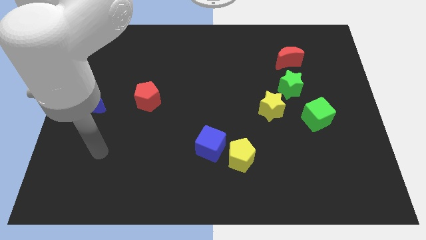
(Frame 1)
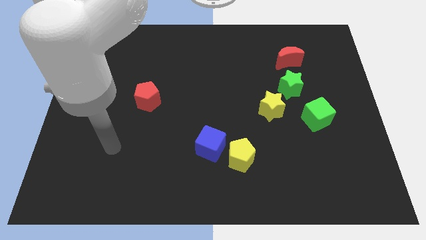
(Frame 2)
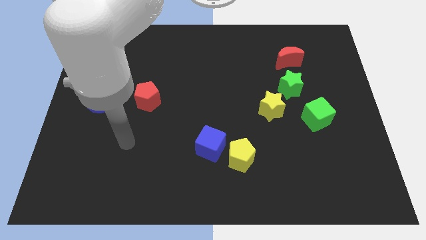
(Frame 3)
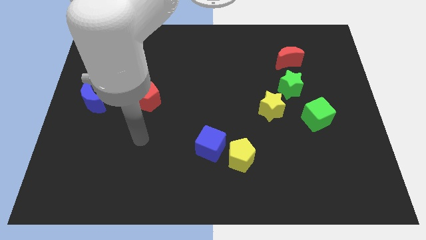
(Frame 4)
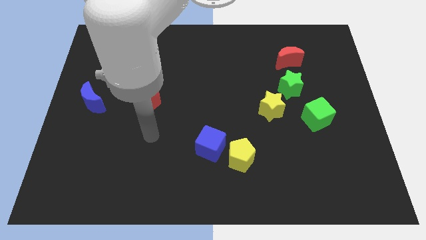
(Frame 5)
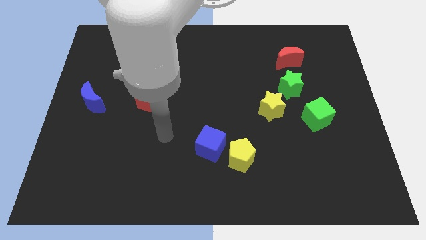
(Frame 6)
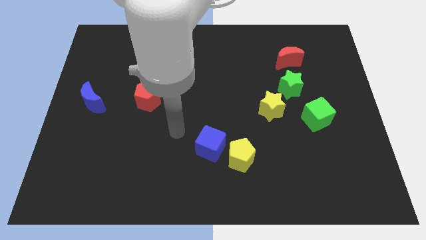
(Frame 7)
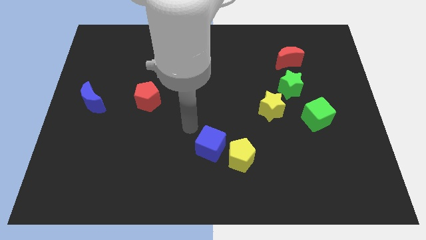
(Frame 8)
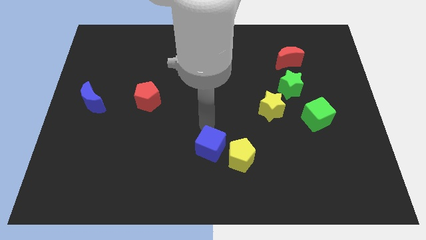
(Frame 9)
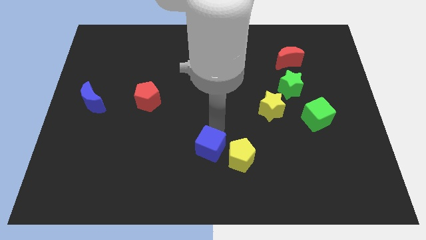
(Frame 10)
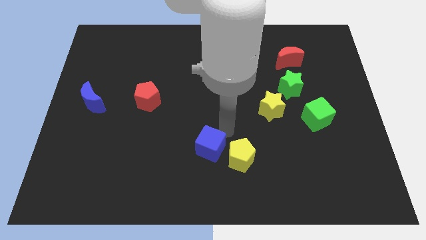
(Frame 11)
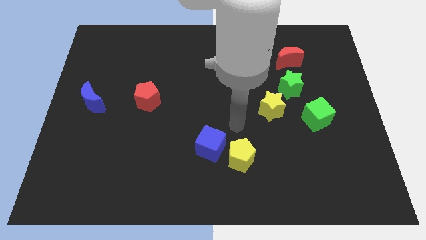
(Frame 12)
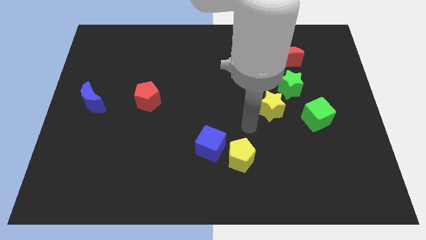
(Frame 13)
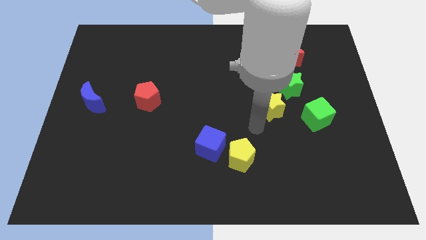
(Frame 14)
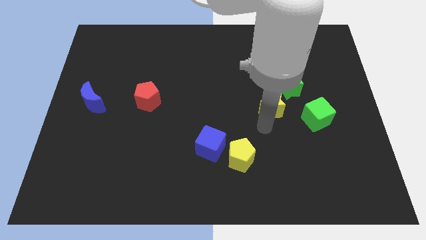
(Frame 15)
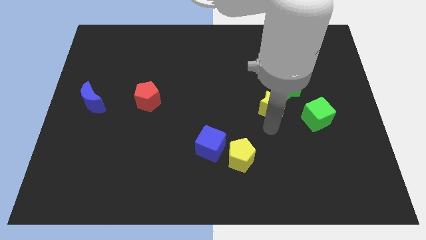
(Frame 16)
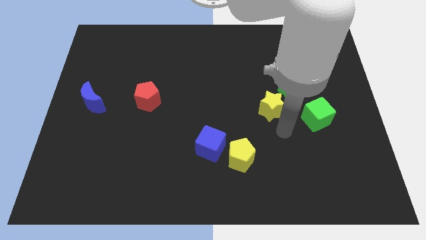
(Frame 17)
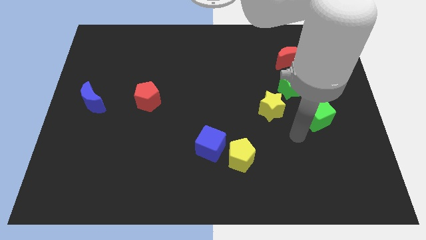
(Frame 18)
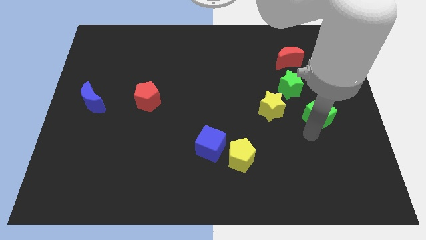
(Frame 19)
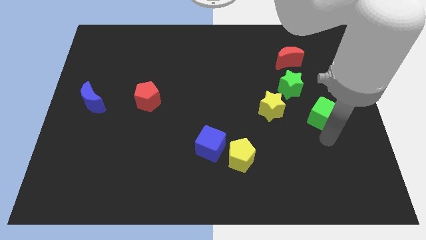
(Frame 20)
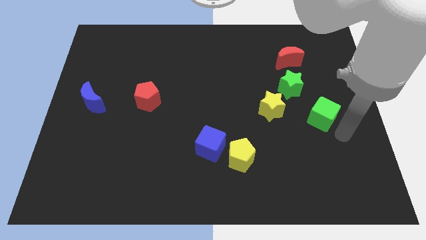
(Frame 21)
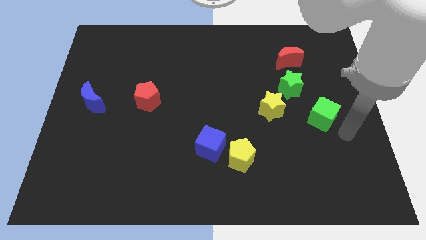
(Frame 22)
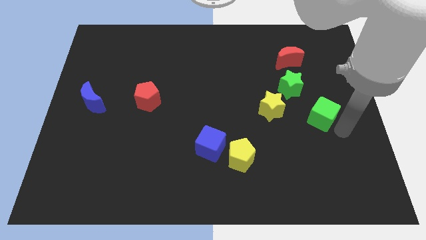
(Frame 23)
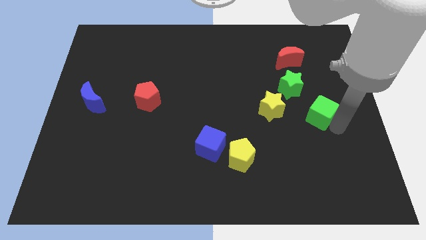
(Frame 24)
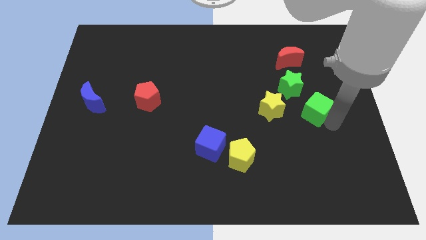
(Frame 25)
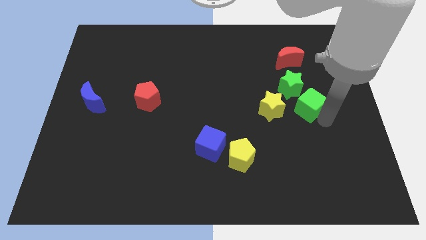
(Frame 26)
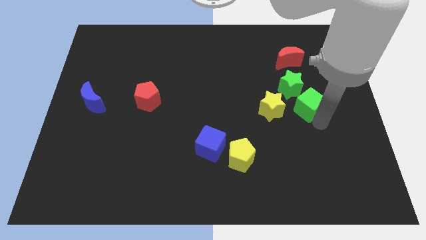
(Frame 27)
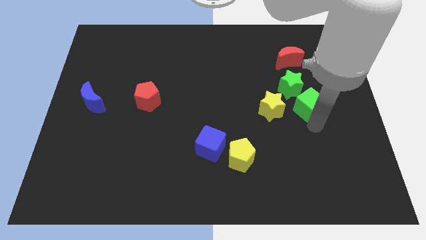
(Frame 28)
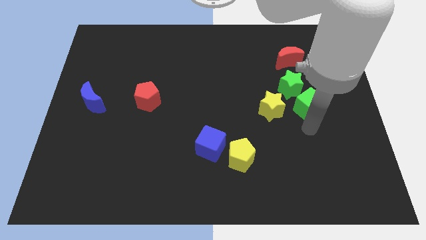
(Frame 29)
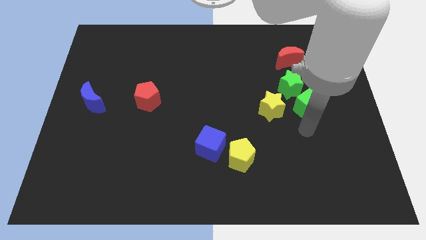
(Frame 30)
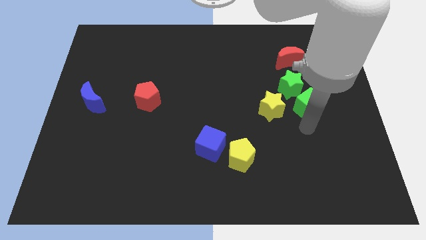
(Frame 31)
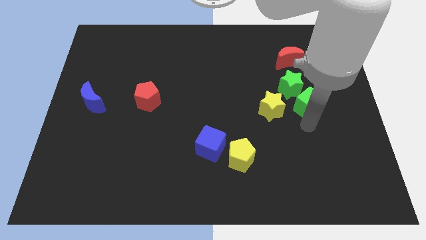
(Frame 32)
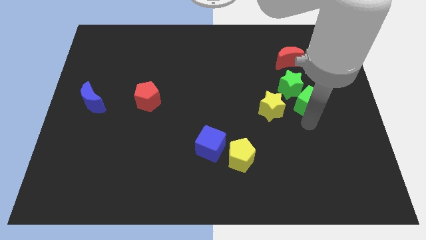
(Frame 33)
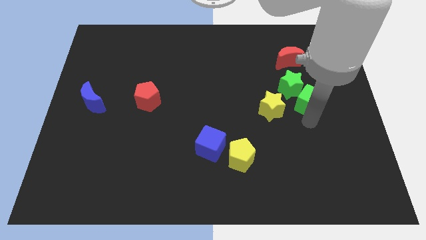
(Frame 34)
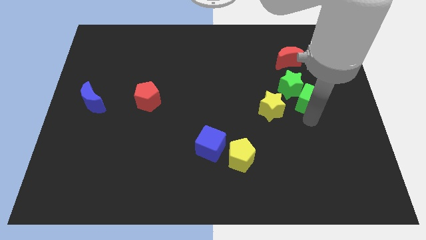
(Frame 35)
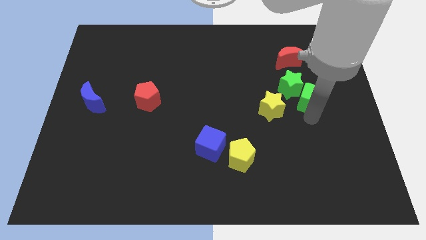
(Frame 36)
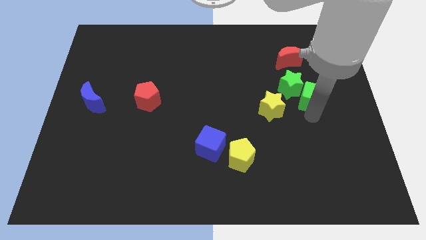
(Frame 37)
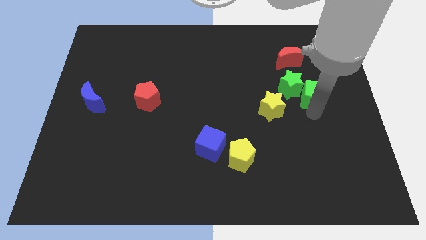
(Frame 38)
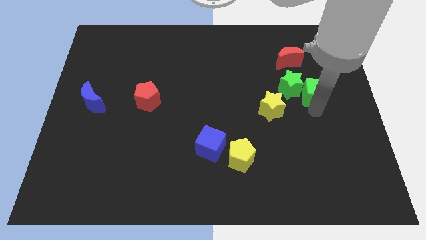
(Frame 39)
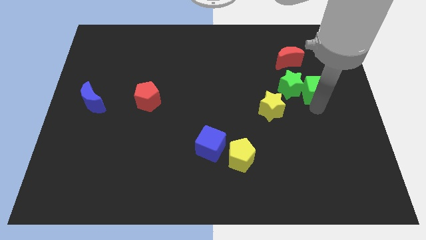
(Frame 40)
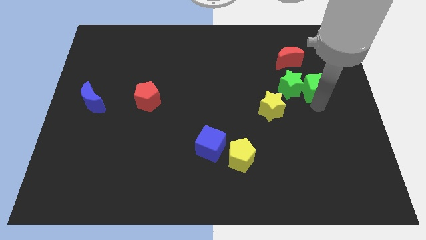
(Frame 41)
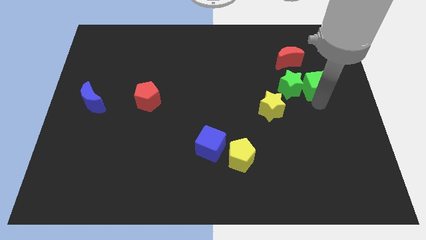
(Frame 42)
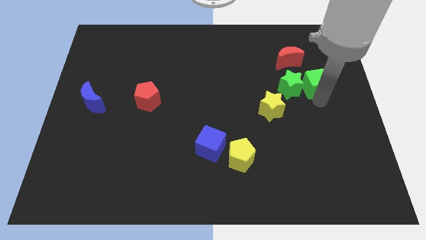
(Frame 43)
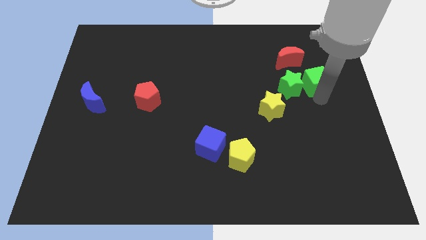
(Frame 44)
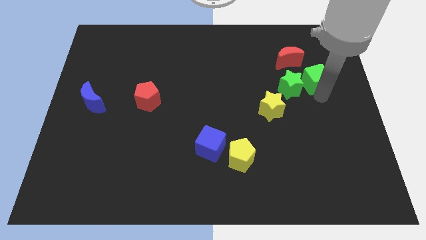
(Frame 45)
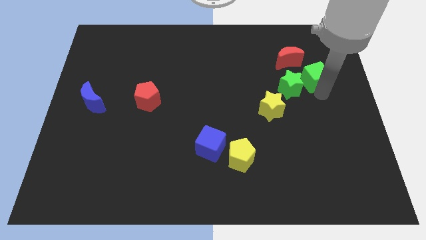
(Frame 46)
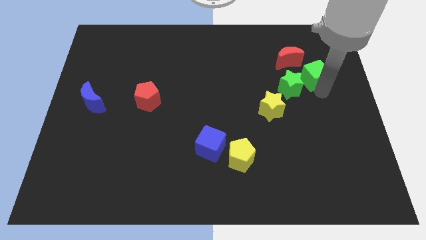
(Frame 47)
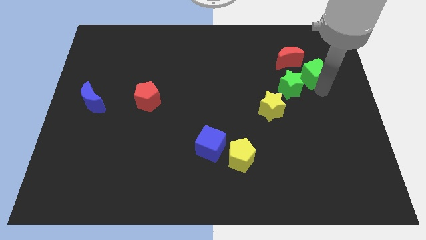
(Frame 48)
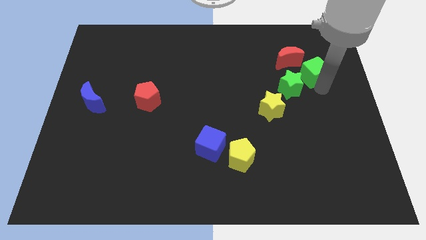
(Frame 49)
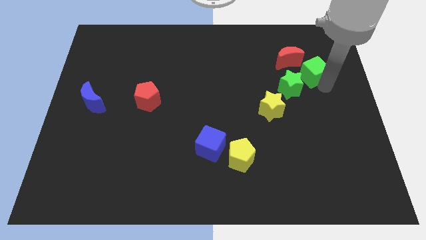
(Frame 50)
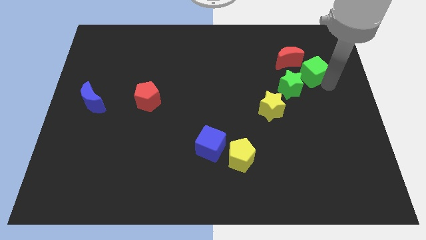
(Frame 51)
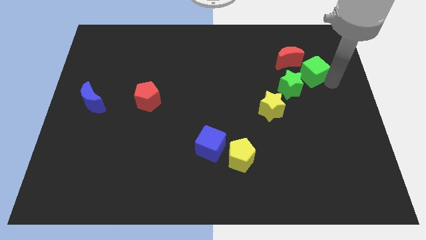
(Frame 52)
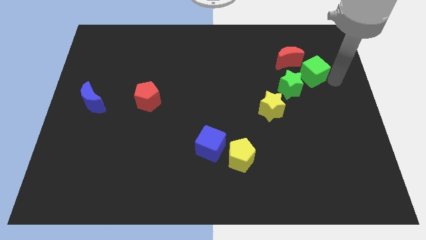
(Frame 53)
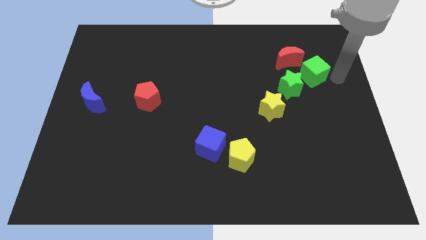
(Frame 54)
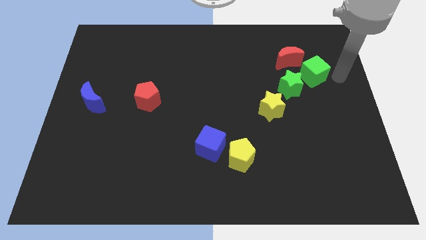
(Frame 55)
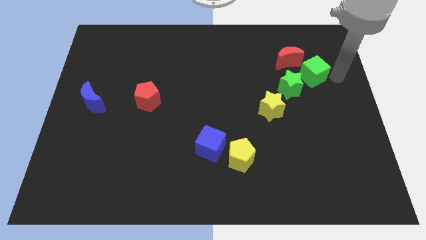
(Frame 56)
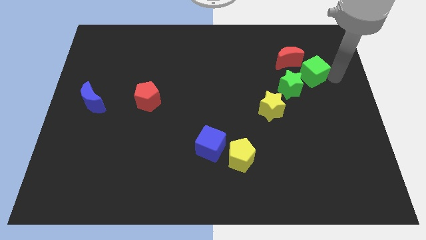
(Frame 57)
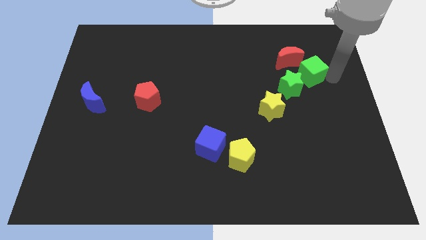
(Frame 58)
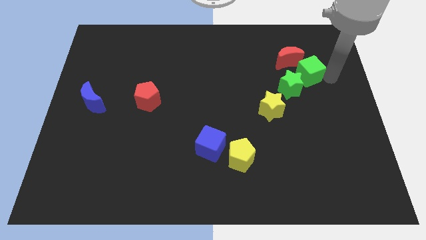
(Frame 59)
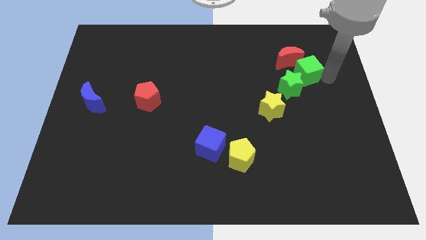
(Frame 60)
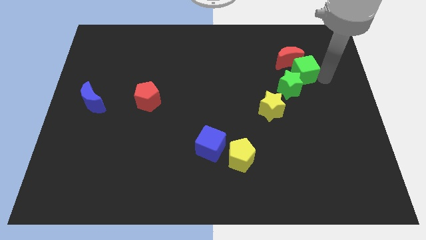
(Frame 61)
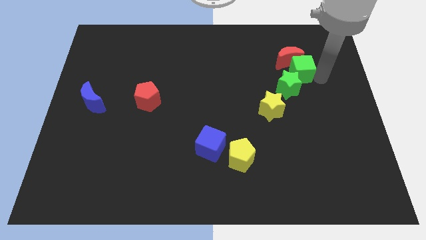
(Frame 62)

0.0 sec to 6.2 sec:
slightly move the green cube up and then to the left

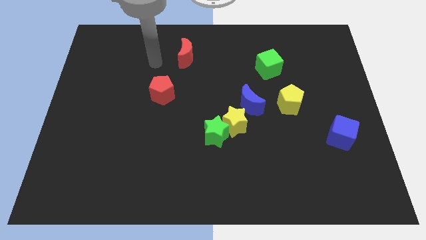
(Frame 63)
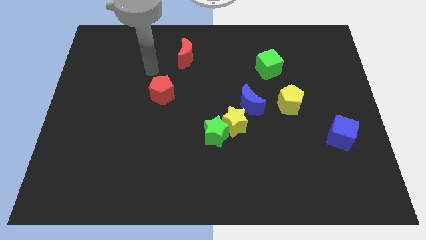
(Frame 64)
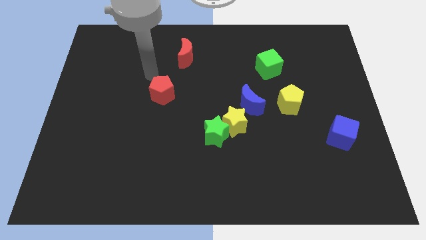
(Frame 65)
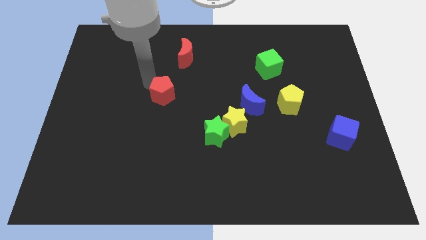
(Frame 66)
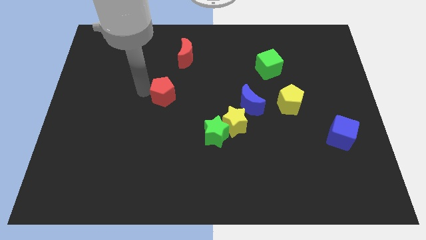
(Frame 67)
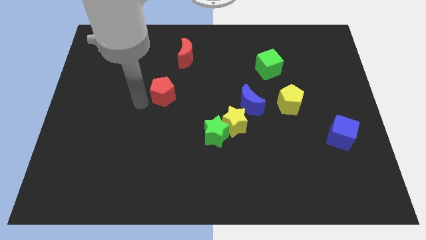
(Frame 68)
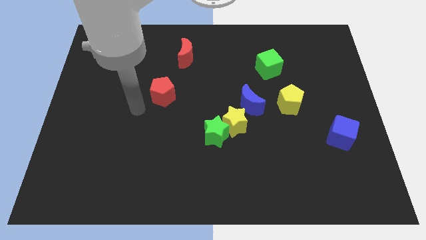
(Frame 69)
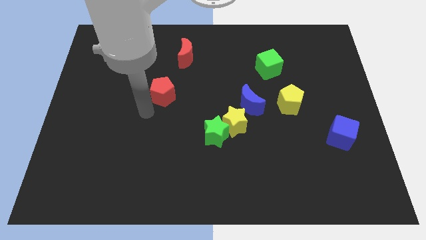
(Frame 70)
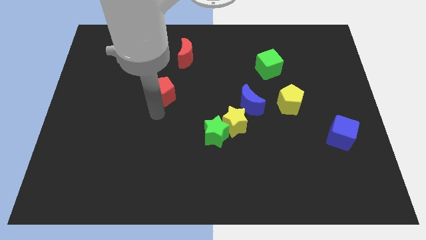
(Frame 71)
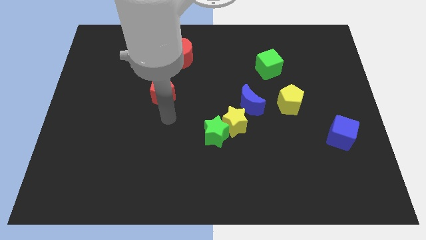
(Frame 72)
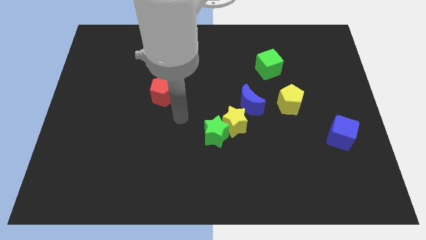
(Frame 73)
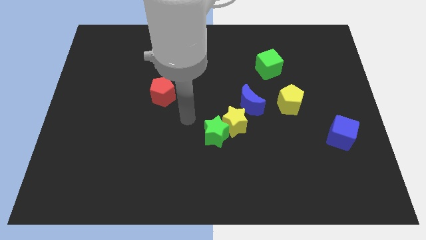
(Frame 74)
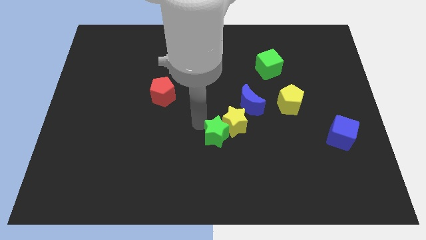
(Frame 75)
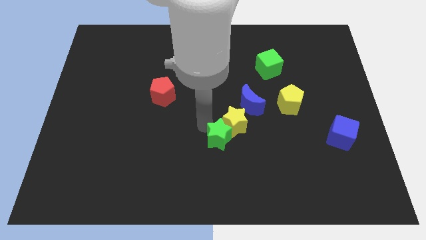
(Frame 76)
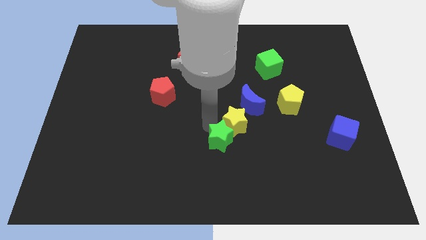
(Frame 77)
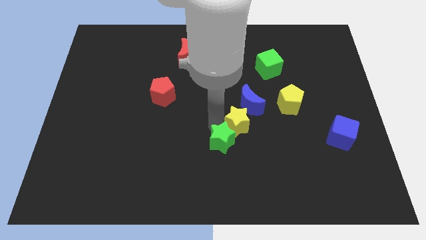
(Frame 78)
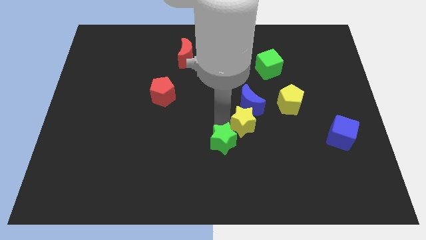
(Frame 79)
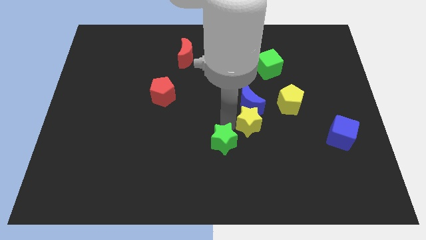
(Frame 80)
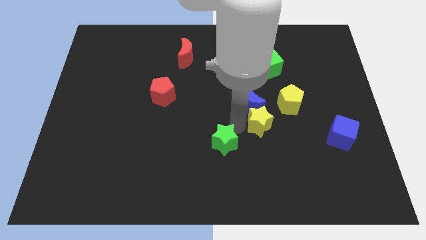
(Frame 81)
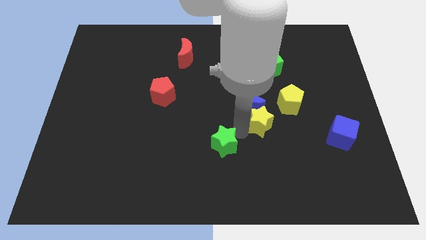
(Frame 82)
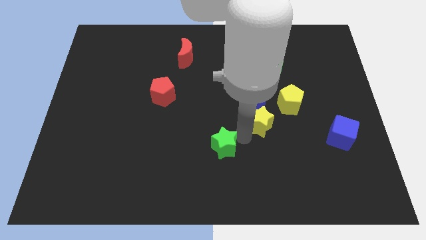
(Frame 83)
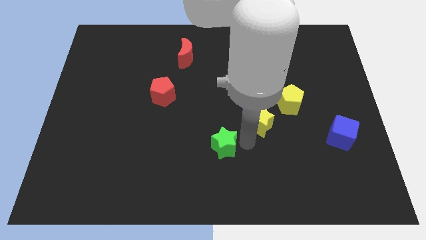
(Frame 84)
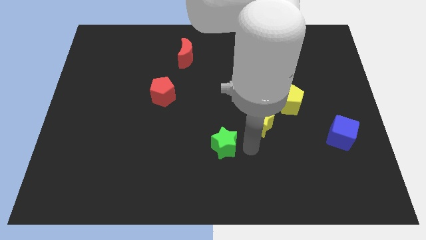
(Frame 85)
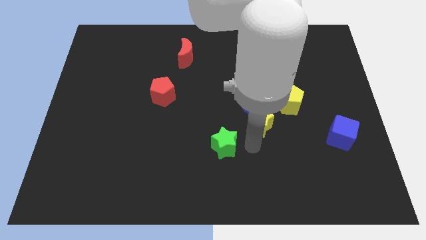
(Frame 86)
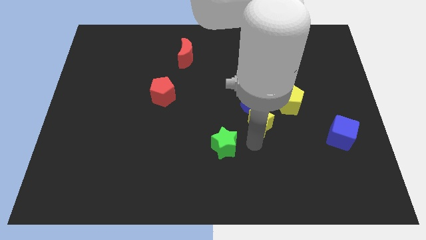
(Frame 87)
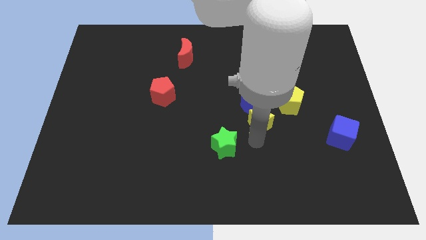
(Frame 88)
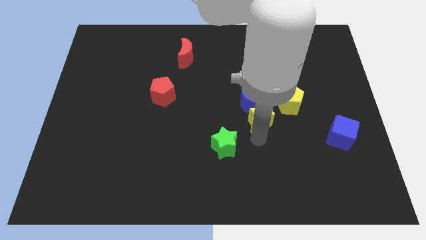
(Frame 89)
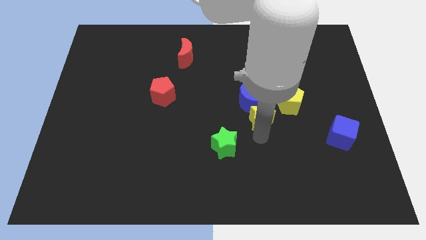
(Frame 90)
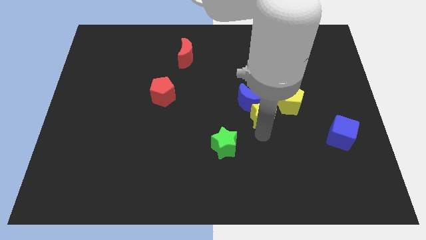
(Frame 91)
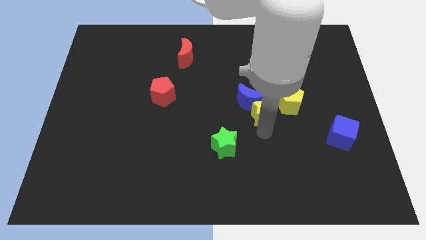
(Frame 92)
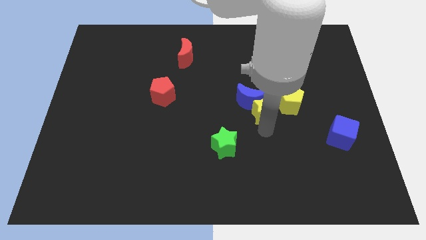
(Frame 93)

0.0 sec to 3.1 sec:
push the yellow star upwards and right diagonally a little bit
